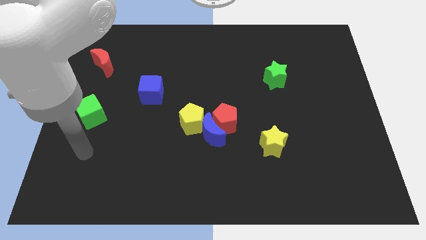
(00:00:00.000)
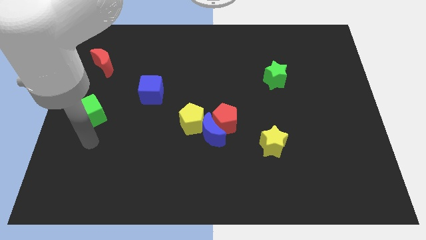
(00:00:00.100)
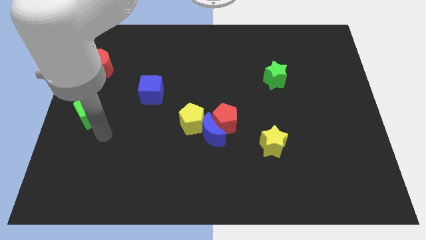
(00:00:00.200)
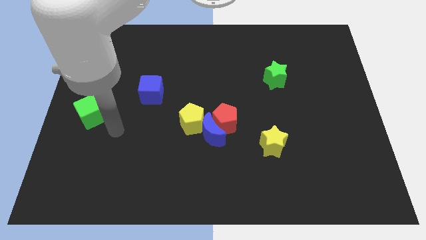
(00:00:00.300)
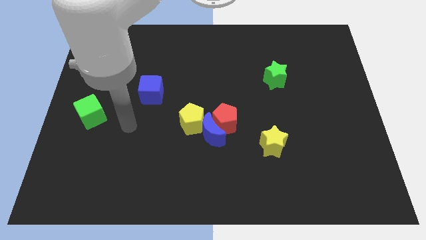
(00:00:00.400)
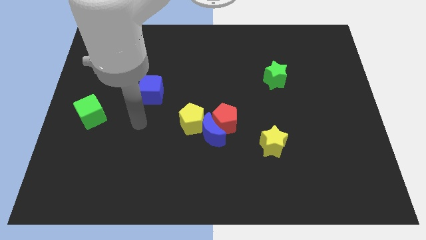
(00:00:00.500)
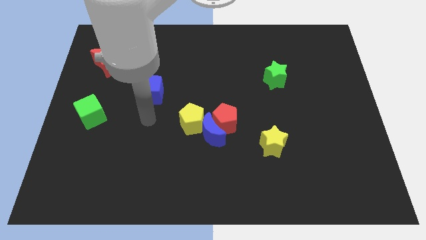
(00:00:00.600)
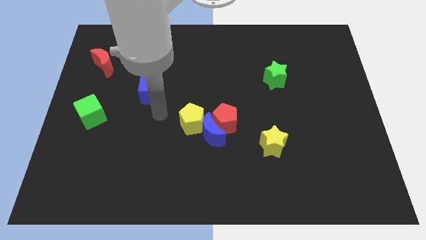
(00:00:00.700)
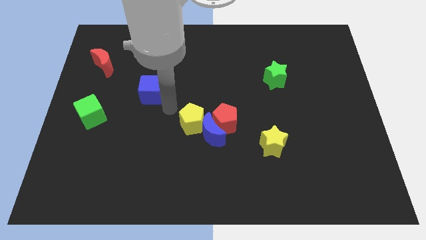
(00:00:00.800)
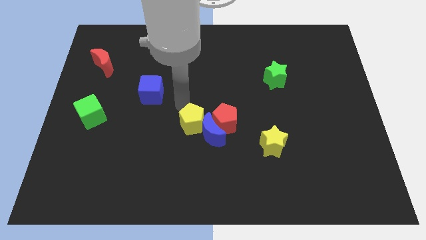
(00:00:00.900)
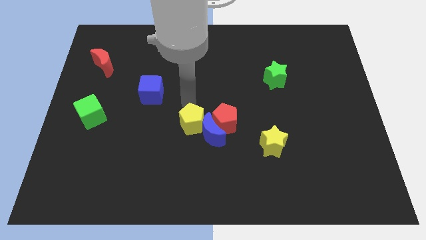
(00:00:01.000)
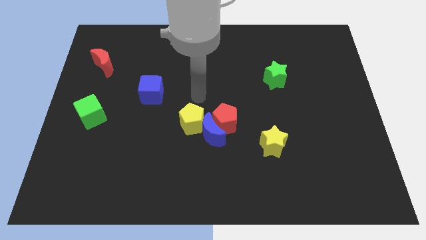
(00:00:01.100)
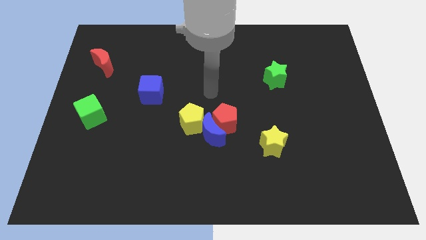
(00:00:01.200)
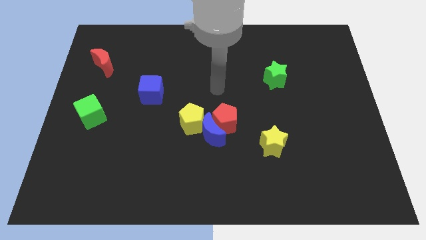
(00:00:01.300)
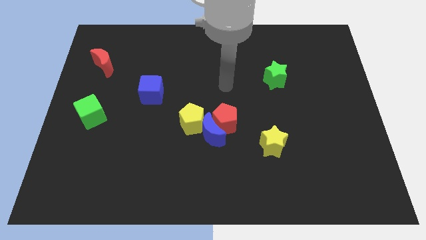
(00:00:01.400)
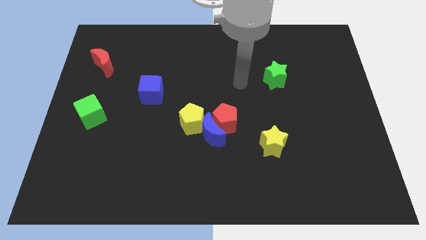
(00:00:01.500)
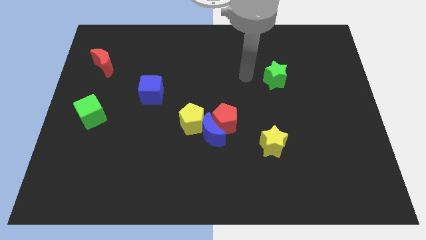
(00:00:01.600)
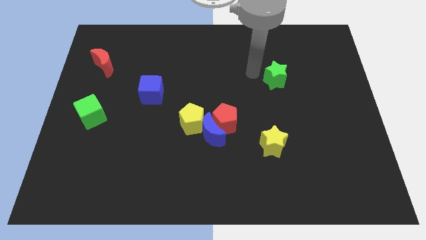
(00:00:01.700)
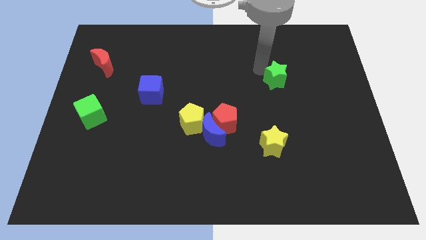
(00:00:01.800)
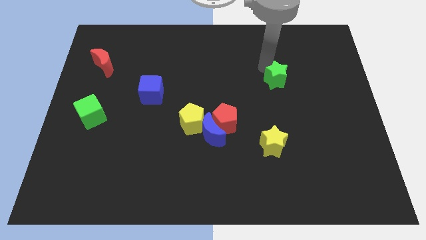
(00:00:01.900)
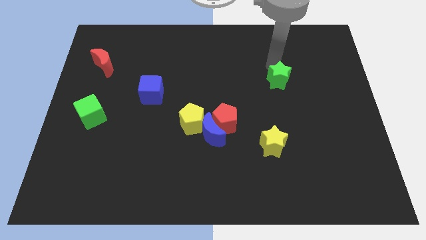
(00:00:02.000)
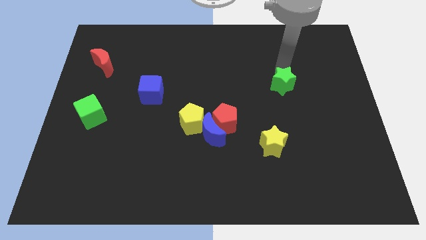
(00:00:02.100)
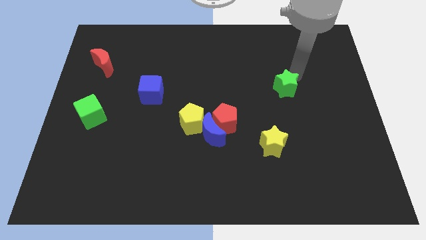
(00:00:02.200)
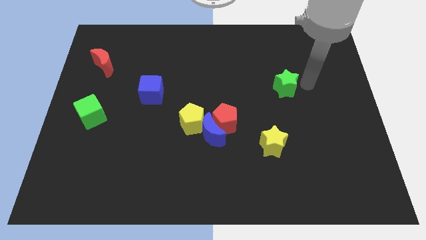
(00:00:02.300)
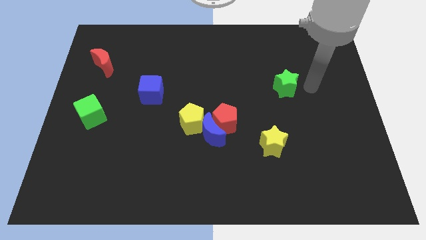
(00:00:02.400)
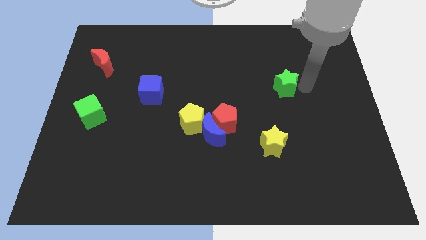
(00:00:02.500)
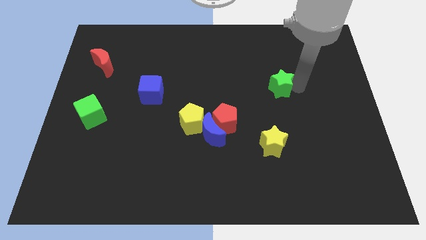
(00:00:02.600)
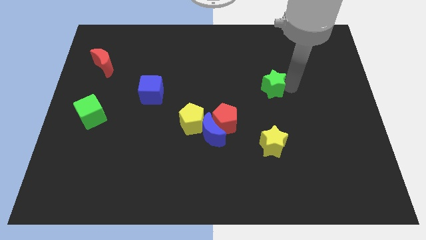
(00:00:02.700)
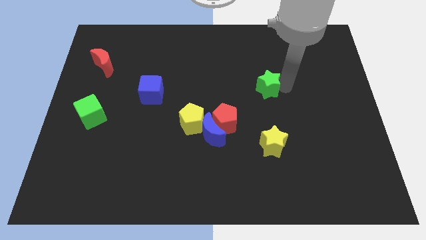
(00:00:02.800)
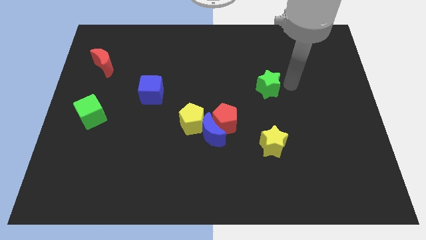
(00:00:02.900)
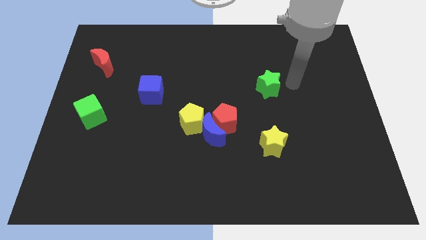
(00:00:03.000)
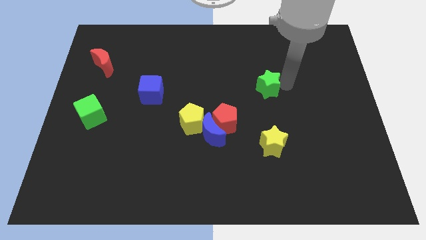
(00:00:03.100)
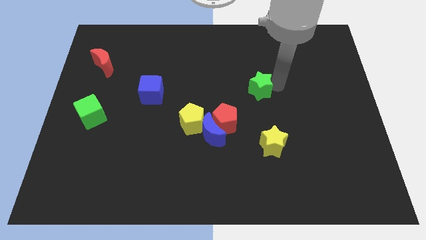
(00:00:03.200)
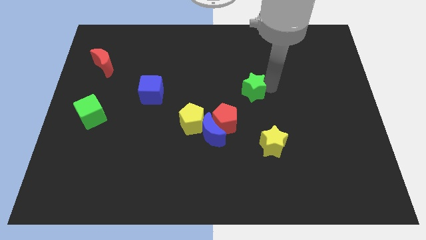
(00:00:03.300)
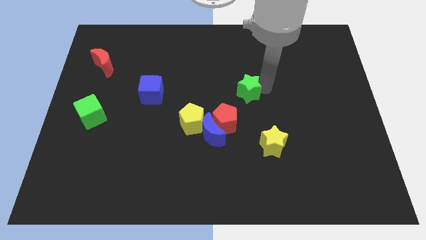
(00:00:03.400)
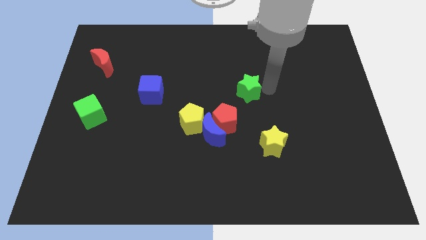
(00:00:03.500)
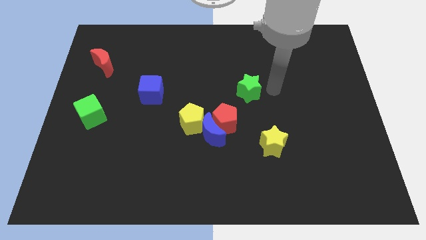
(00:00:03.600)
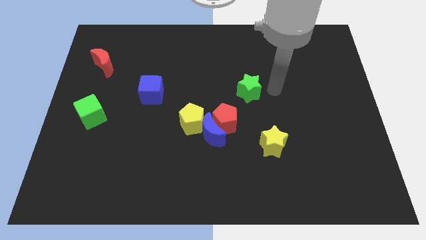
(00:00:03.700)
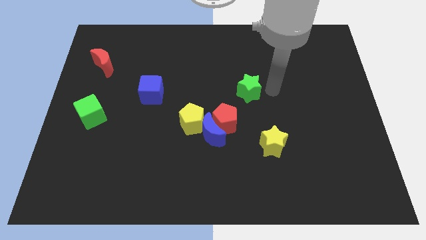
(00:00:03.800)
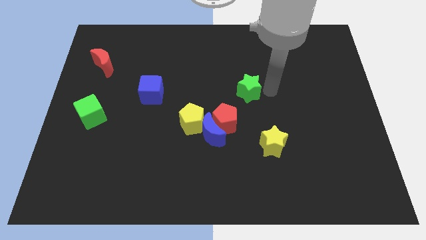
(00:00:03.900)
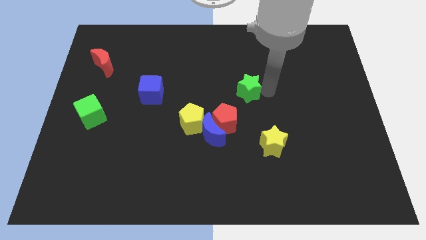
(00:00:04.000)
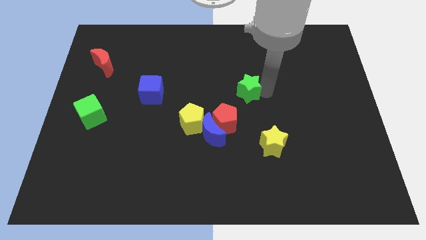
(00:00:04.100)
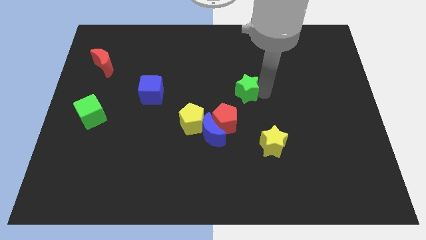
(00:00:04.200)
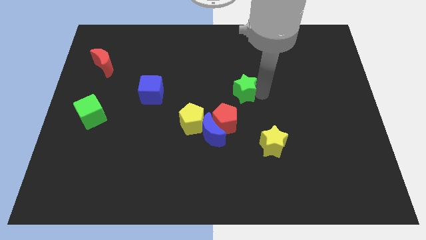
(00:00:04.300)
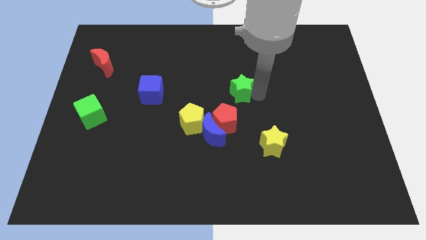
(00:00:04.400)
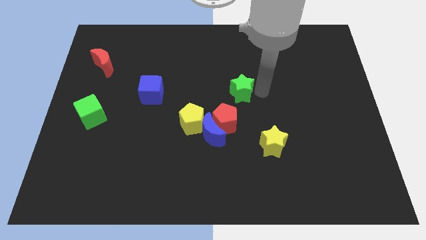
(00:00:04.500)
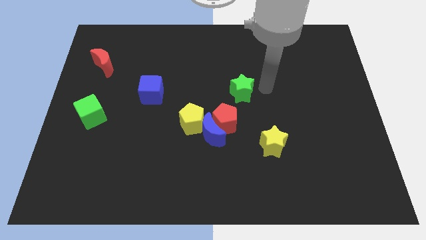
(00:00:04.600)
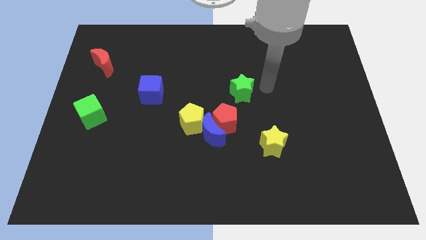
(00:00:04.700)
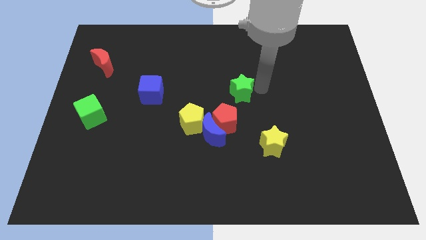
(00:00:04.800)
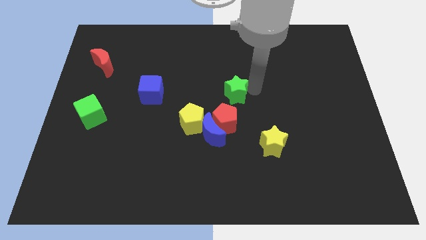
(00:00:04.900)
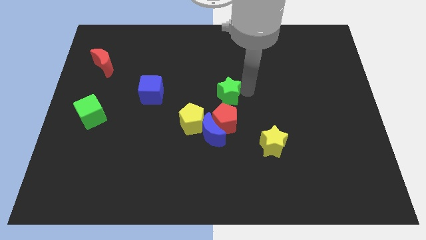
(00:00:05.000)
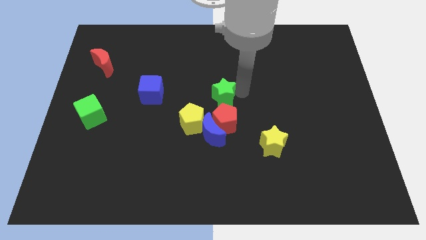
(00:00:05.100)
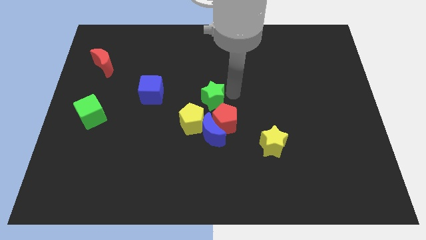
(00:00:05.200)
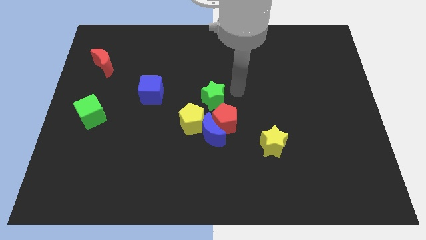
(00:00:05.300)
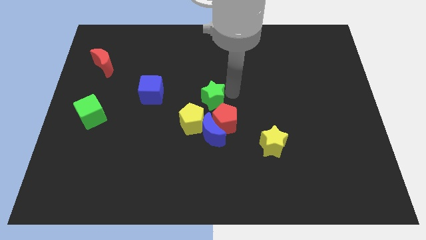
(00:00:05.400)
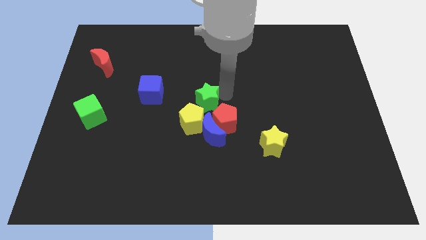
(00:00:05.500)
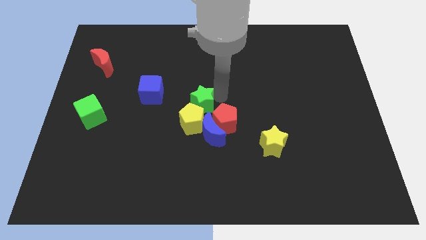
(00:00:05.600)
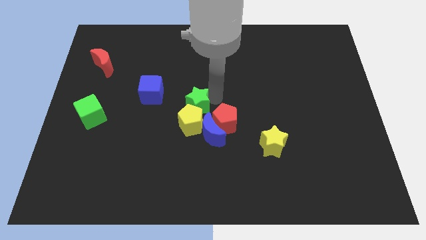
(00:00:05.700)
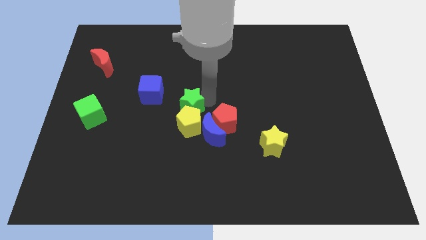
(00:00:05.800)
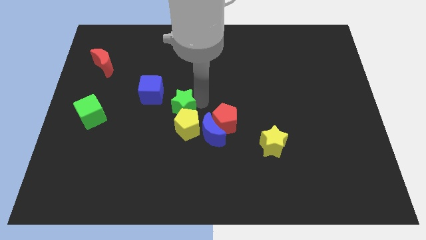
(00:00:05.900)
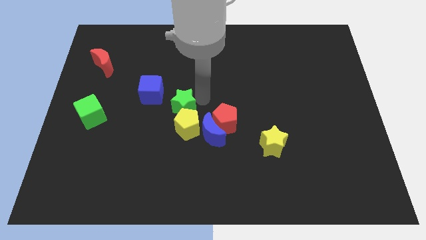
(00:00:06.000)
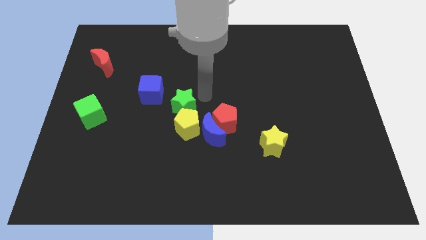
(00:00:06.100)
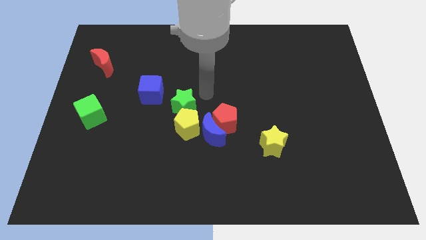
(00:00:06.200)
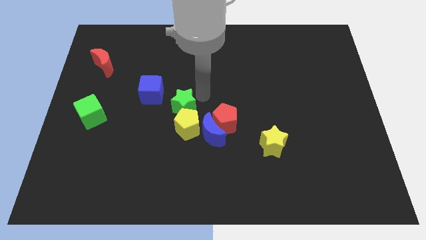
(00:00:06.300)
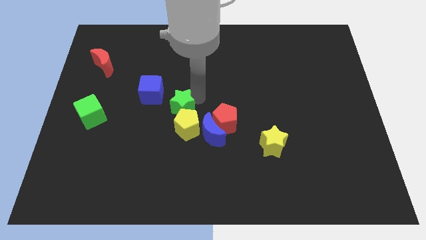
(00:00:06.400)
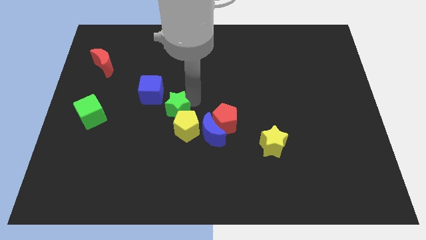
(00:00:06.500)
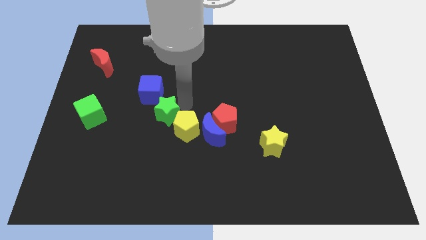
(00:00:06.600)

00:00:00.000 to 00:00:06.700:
slide the green star to the left of the yellow pentagon
